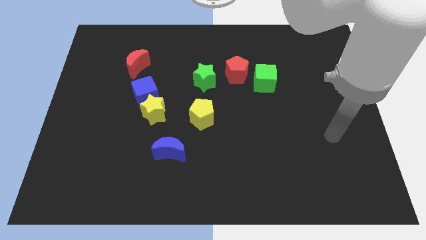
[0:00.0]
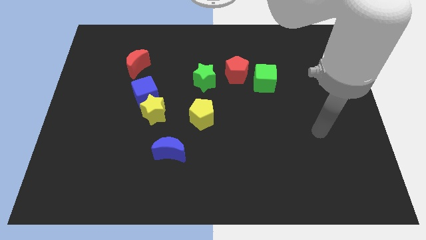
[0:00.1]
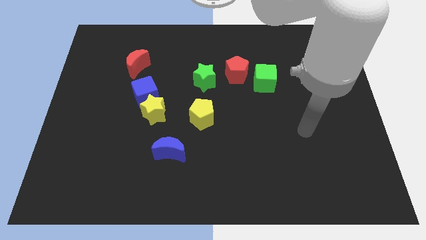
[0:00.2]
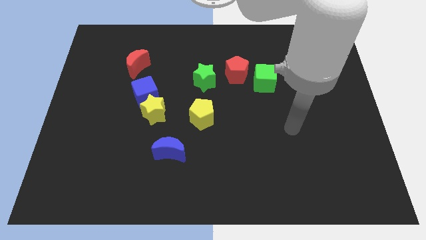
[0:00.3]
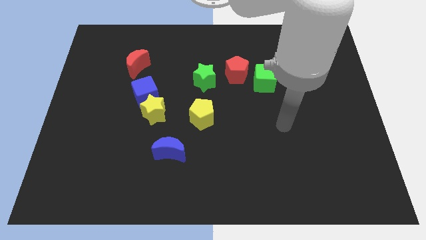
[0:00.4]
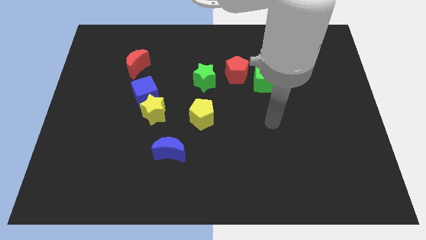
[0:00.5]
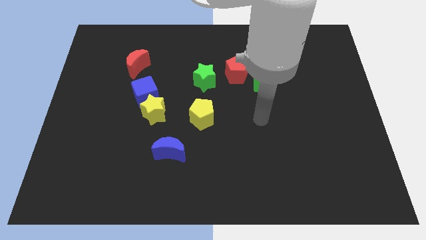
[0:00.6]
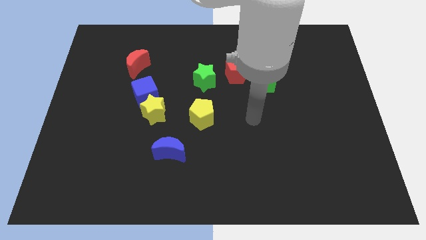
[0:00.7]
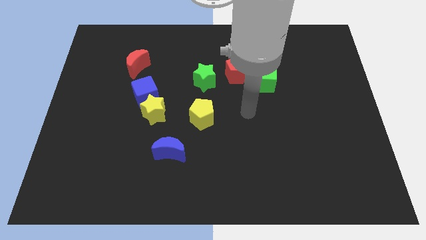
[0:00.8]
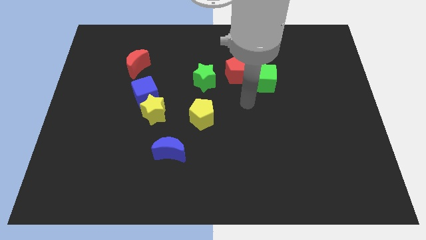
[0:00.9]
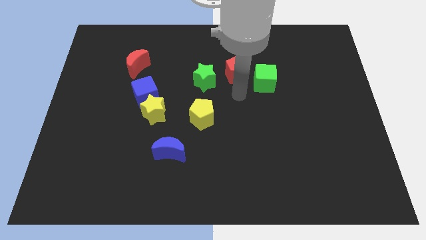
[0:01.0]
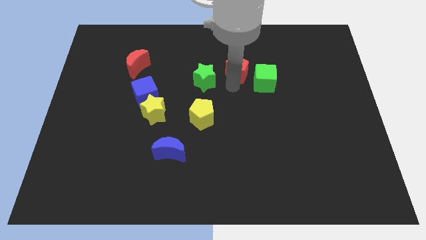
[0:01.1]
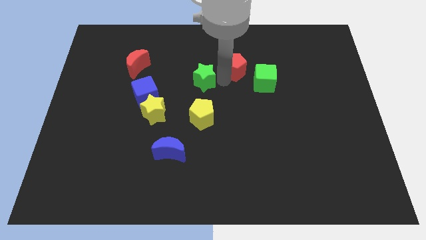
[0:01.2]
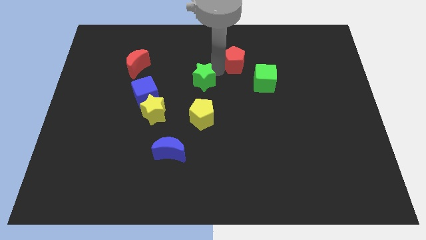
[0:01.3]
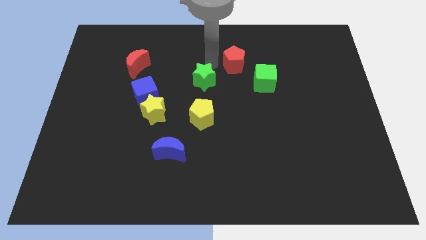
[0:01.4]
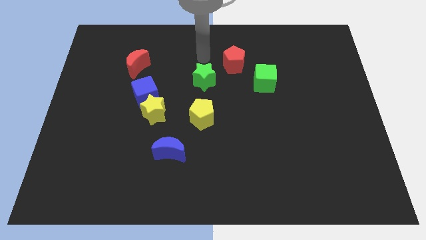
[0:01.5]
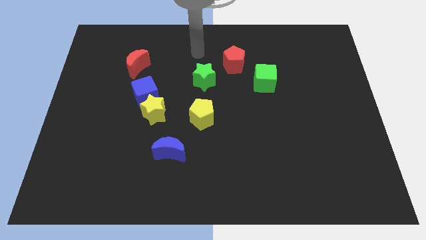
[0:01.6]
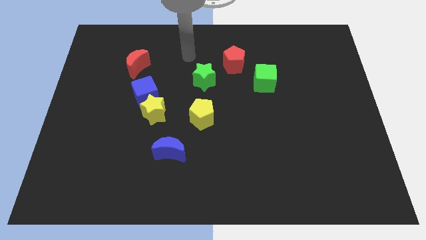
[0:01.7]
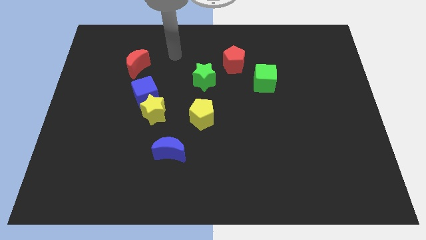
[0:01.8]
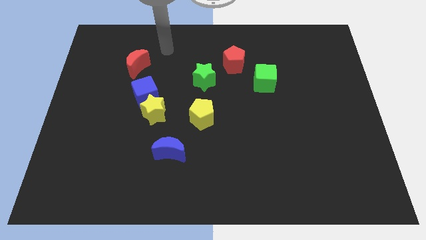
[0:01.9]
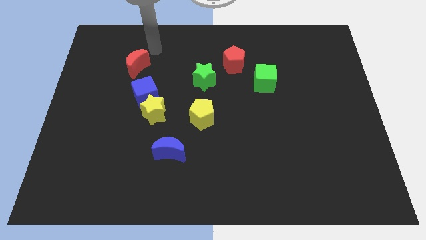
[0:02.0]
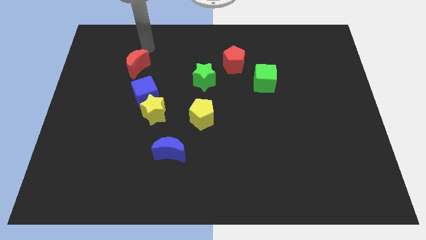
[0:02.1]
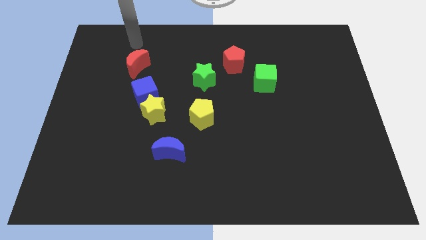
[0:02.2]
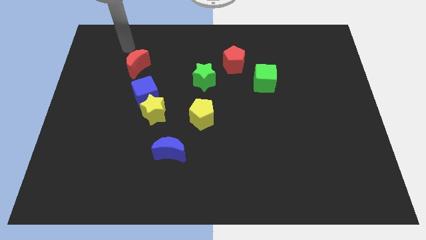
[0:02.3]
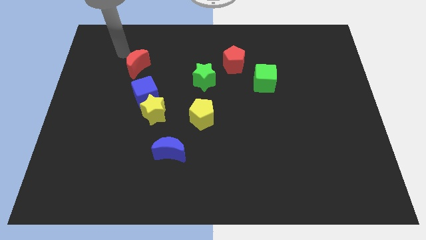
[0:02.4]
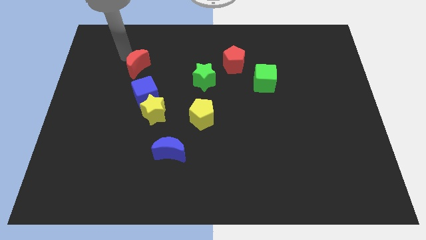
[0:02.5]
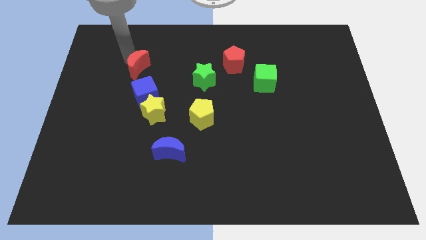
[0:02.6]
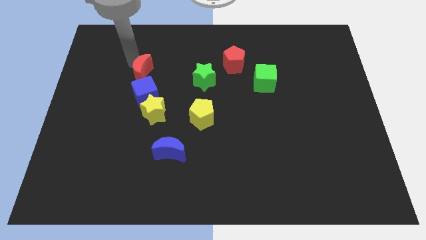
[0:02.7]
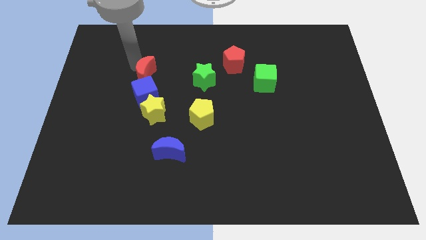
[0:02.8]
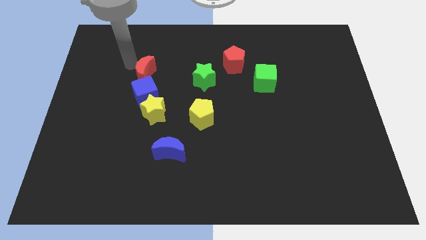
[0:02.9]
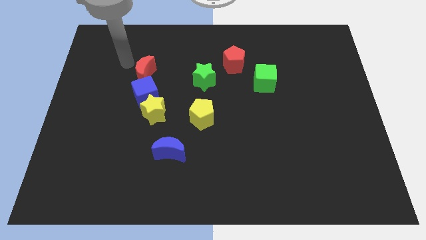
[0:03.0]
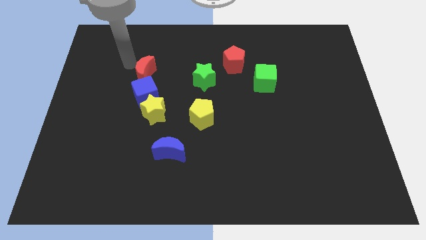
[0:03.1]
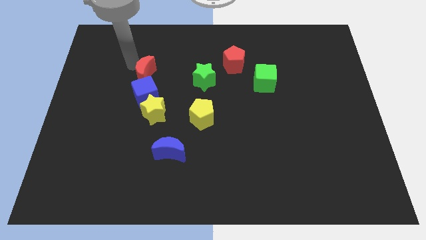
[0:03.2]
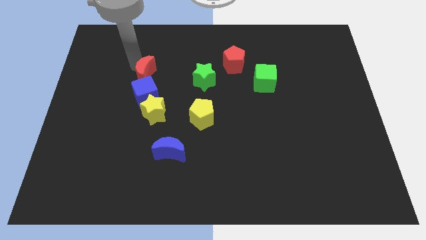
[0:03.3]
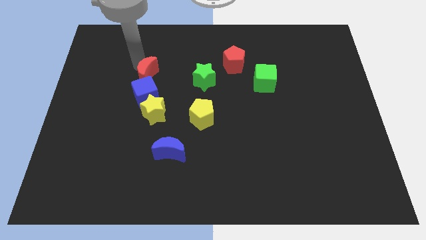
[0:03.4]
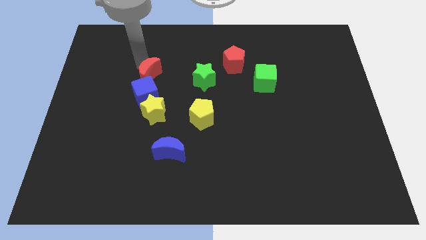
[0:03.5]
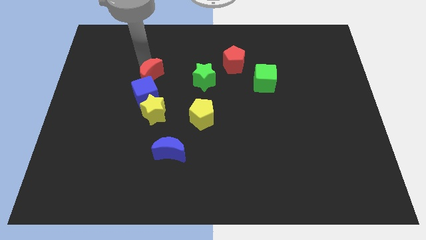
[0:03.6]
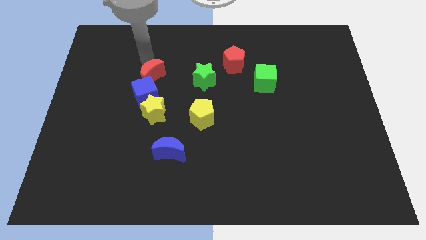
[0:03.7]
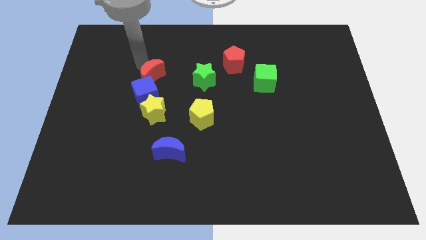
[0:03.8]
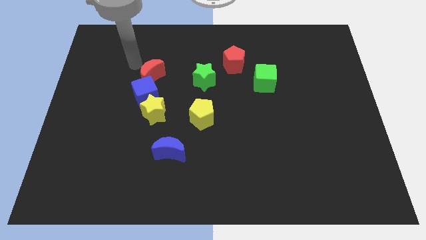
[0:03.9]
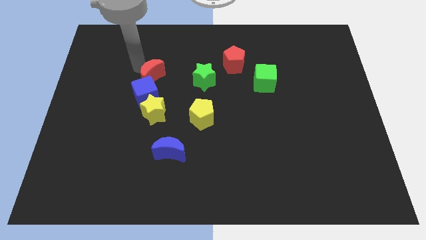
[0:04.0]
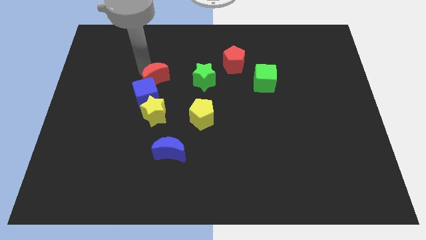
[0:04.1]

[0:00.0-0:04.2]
move the red moon down and then to the right a bit

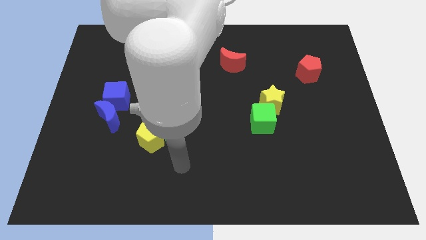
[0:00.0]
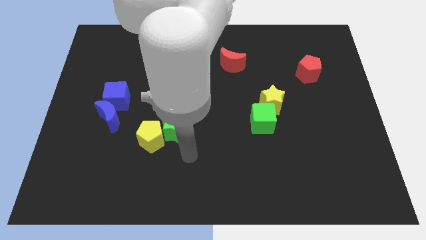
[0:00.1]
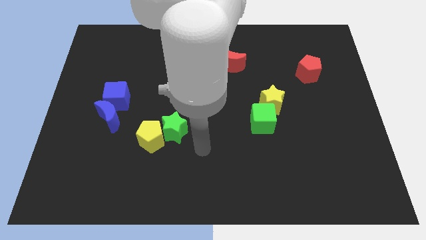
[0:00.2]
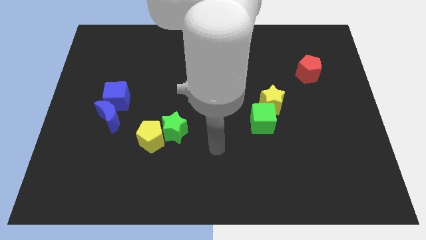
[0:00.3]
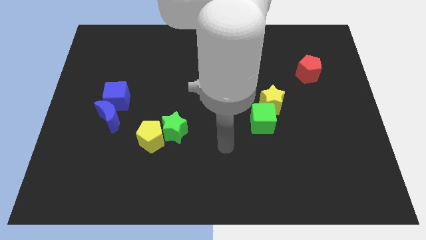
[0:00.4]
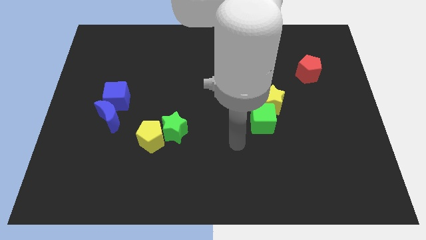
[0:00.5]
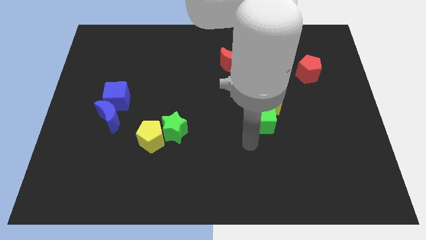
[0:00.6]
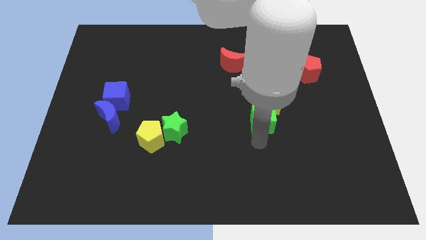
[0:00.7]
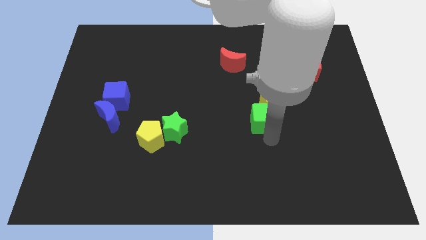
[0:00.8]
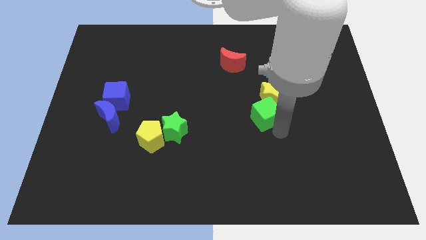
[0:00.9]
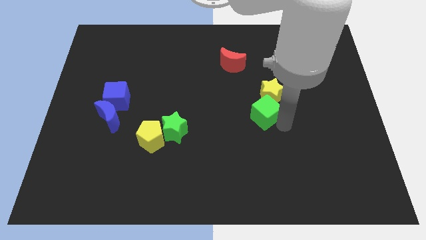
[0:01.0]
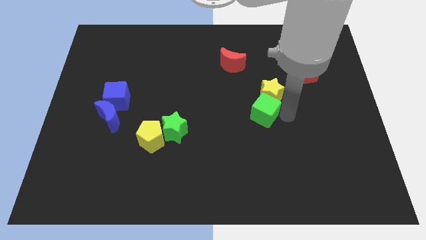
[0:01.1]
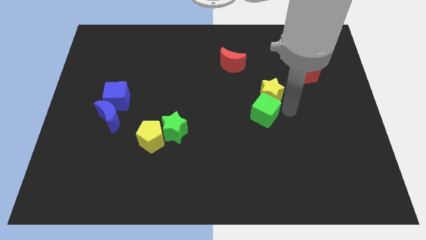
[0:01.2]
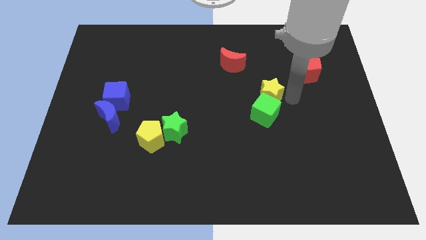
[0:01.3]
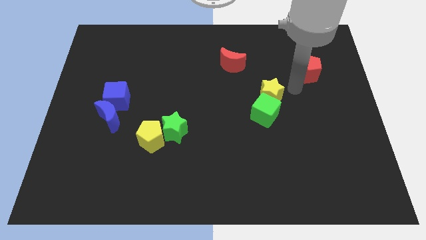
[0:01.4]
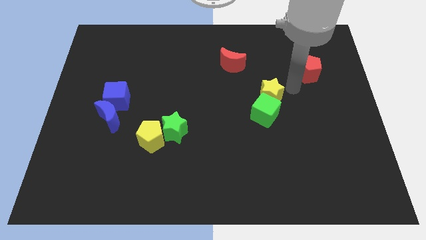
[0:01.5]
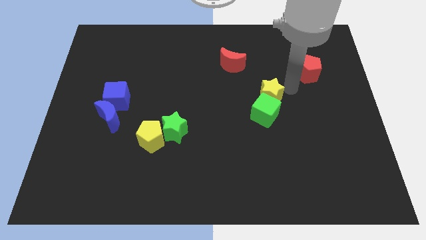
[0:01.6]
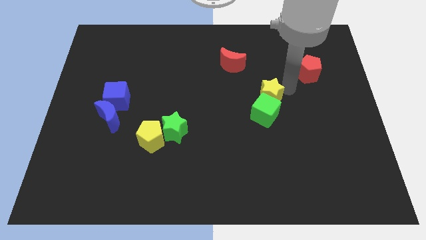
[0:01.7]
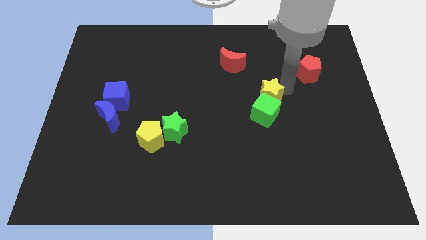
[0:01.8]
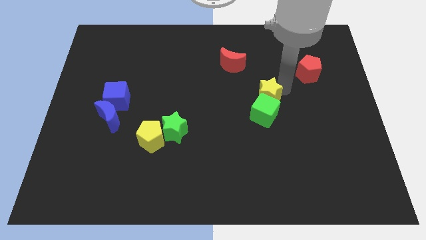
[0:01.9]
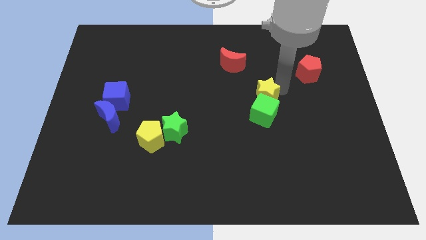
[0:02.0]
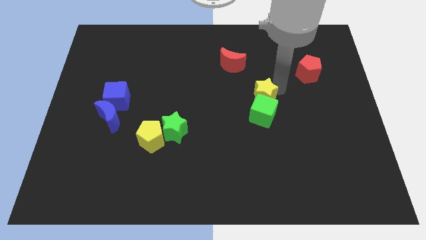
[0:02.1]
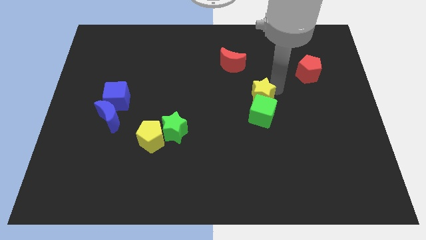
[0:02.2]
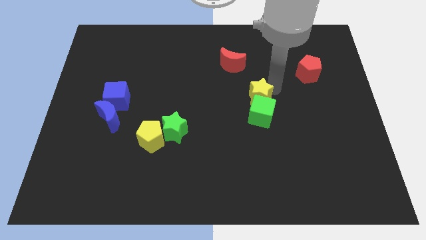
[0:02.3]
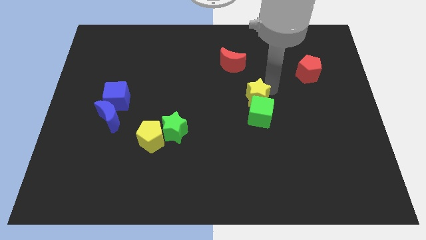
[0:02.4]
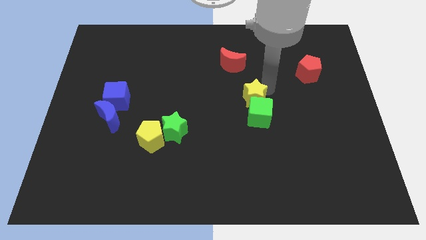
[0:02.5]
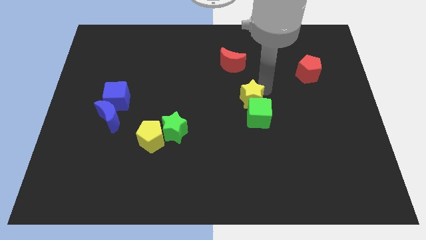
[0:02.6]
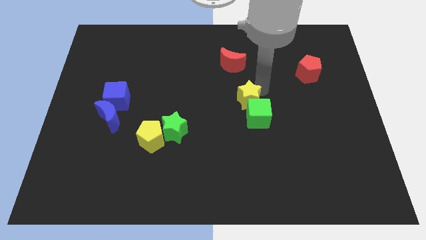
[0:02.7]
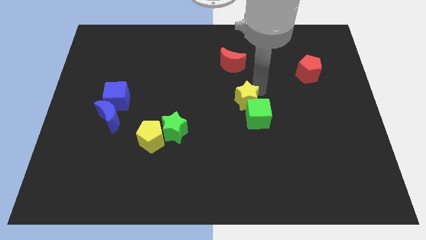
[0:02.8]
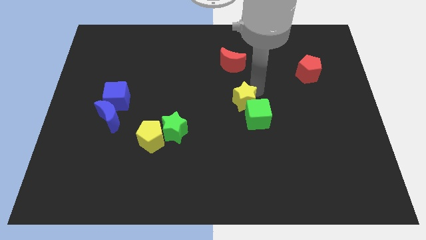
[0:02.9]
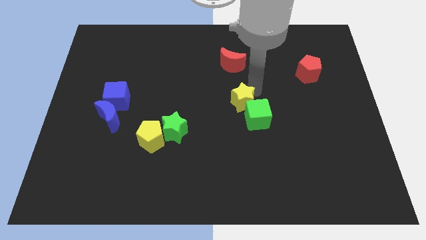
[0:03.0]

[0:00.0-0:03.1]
move the yellow star left a little

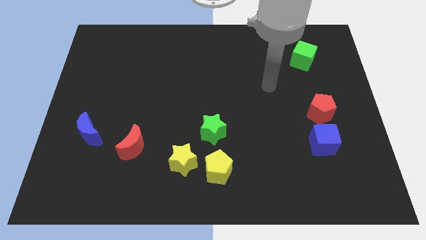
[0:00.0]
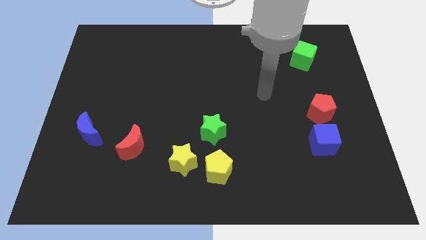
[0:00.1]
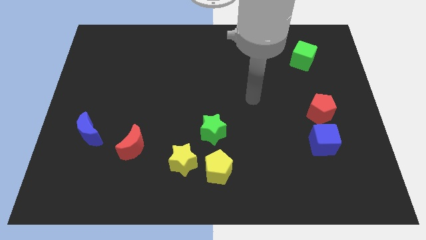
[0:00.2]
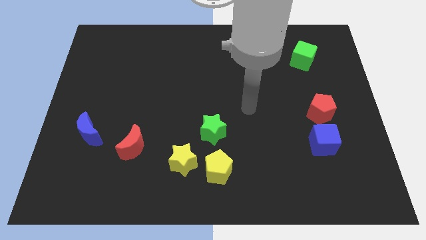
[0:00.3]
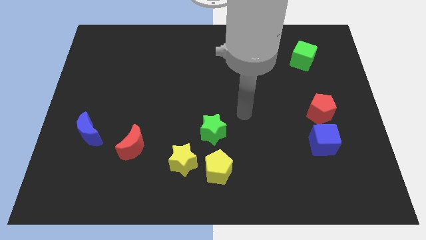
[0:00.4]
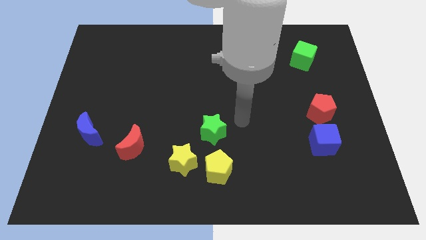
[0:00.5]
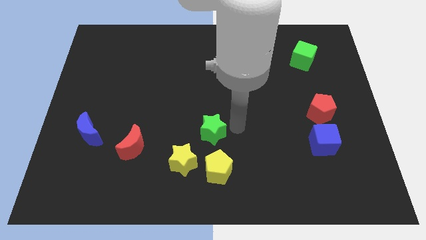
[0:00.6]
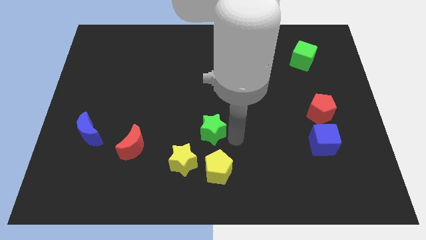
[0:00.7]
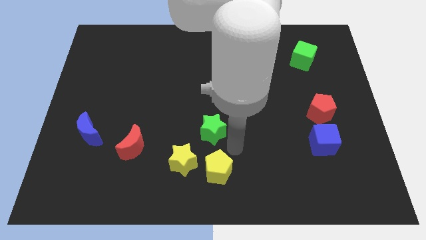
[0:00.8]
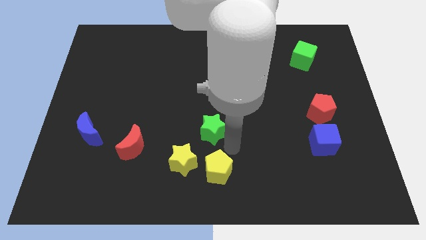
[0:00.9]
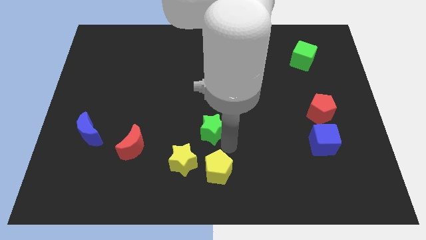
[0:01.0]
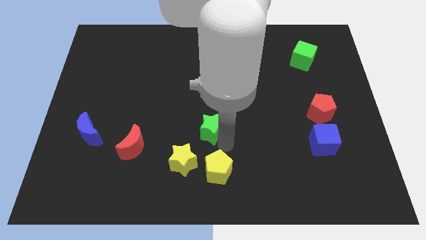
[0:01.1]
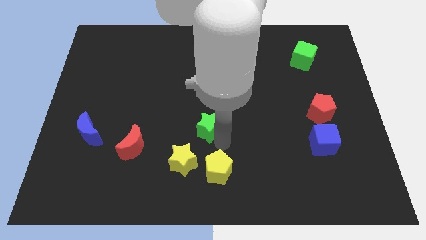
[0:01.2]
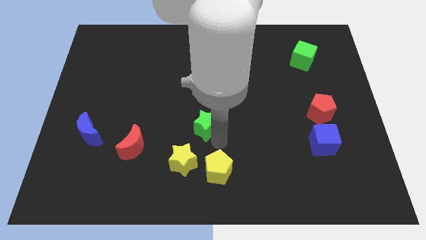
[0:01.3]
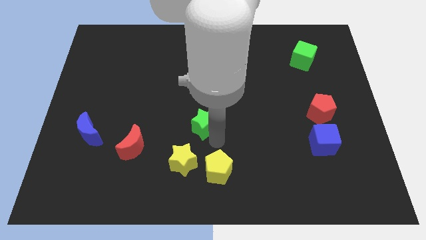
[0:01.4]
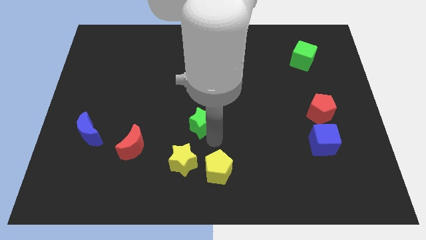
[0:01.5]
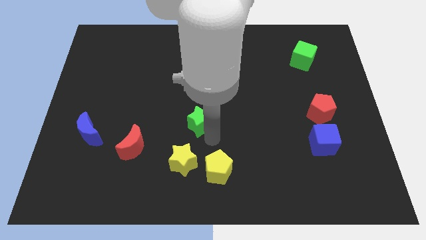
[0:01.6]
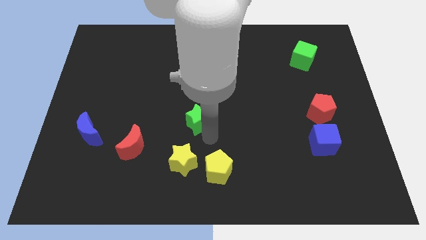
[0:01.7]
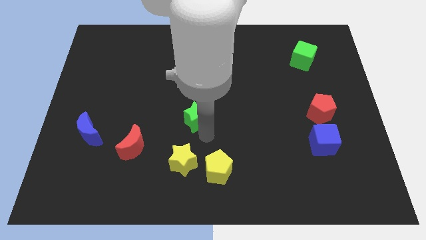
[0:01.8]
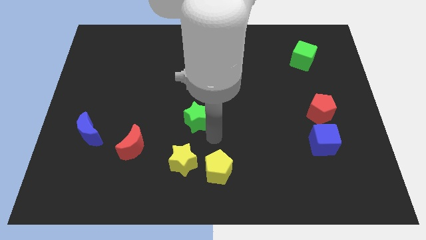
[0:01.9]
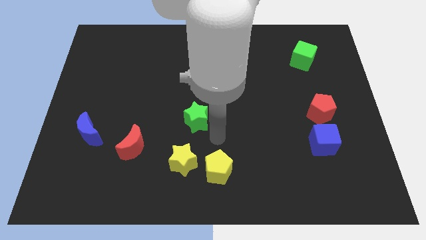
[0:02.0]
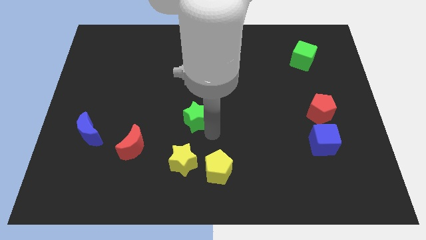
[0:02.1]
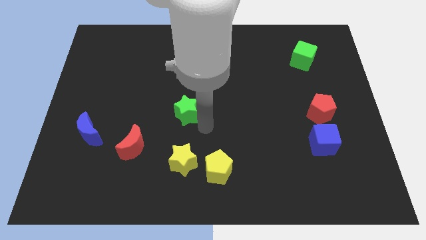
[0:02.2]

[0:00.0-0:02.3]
push the green star diagonally upwards and to the left somewhat
